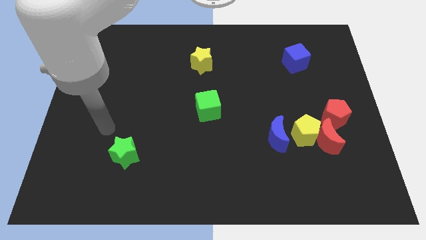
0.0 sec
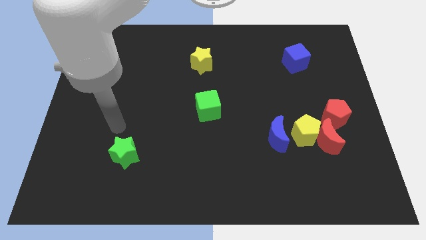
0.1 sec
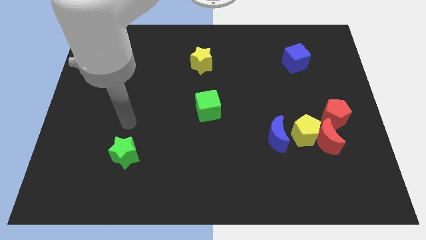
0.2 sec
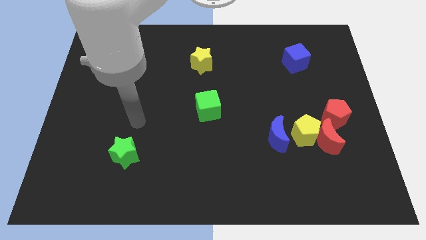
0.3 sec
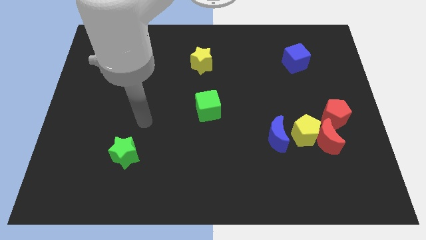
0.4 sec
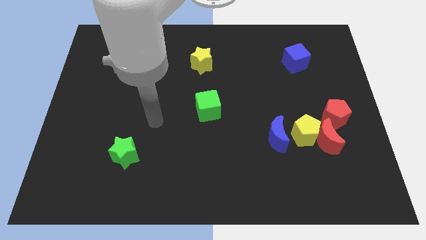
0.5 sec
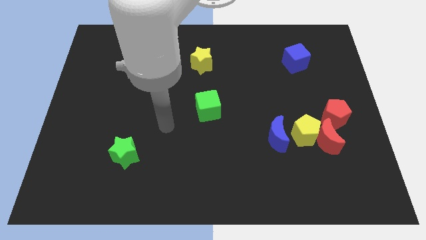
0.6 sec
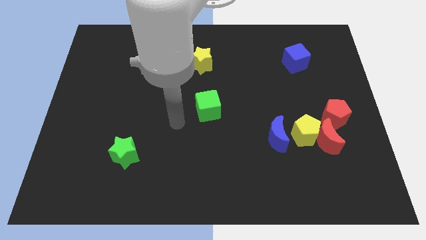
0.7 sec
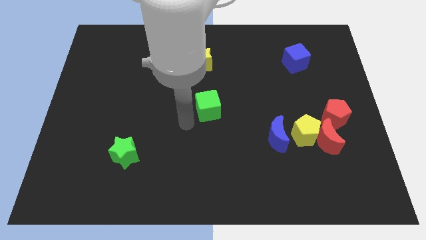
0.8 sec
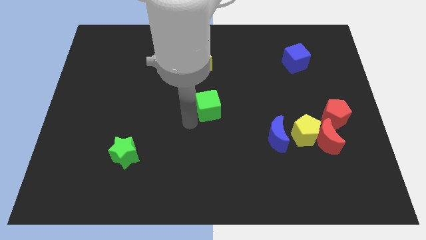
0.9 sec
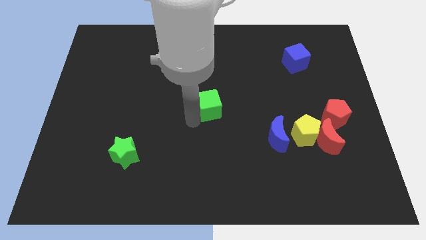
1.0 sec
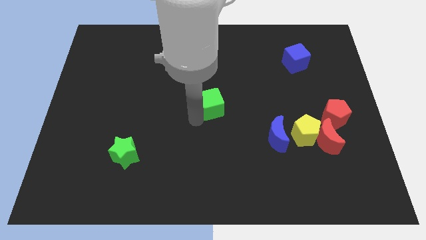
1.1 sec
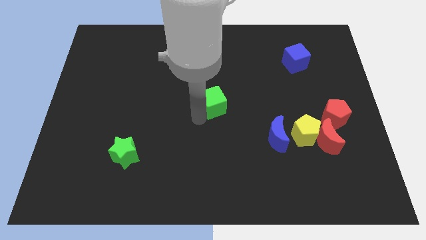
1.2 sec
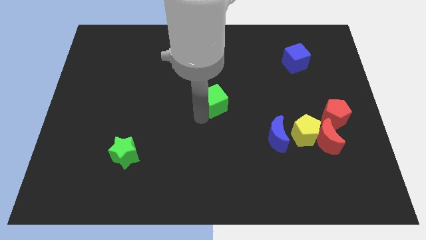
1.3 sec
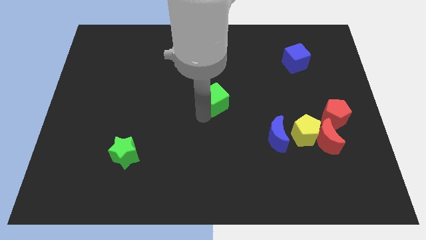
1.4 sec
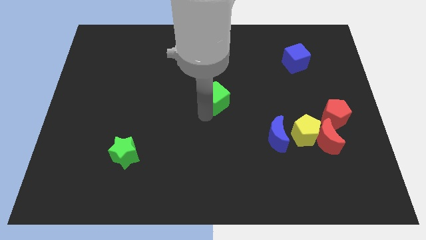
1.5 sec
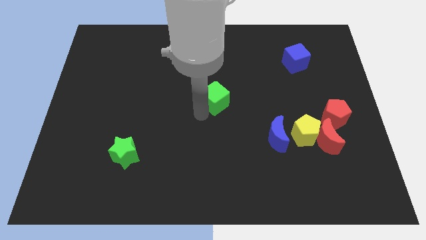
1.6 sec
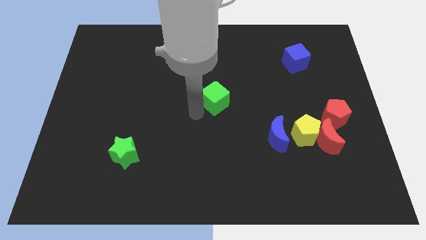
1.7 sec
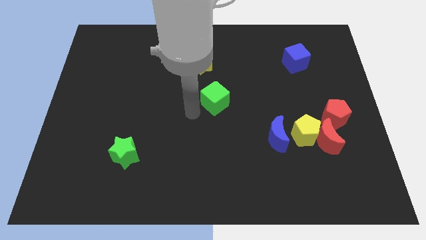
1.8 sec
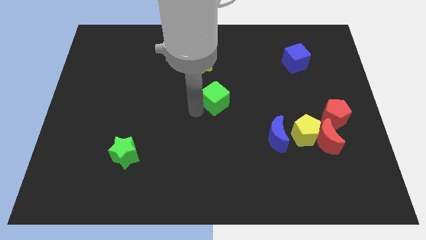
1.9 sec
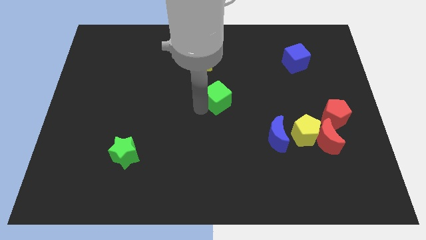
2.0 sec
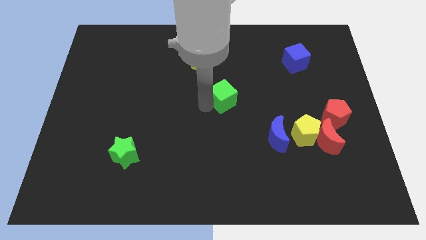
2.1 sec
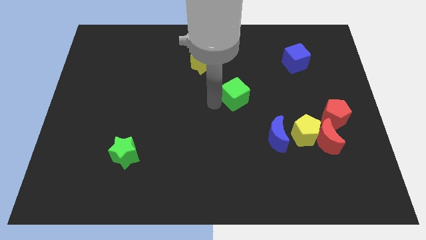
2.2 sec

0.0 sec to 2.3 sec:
push the green cube a little up and then right

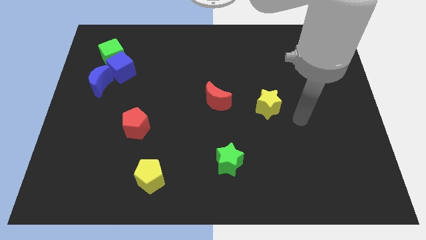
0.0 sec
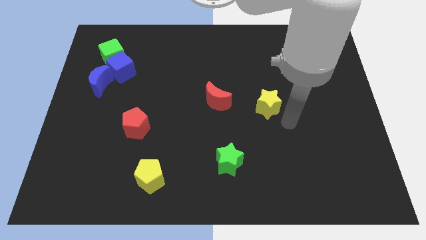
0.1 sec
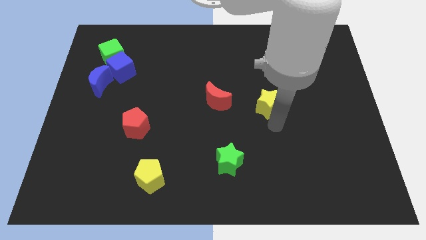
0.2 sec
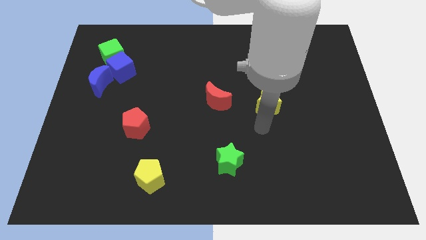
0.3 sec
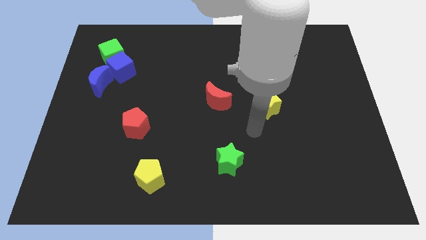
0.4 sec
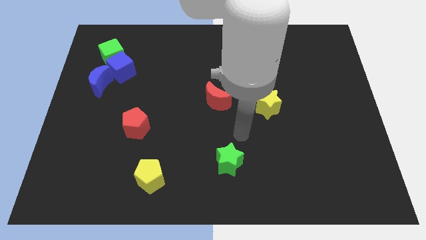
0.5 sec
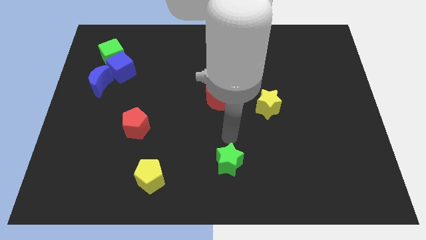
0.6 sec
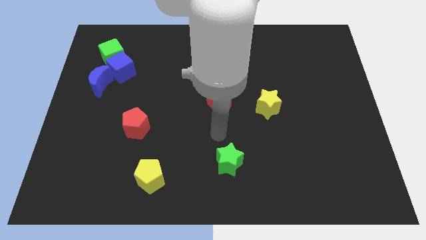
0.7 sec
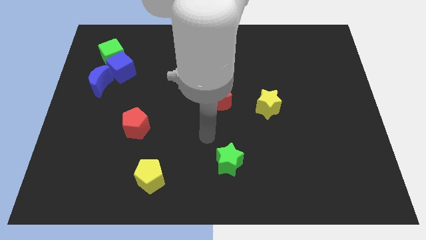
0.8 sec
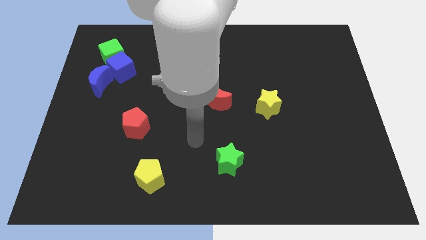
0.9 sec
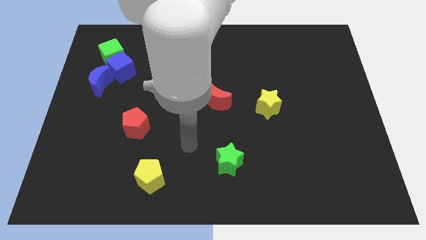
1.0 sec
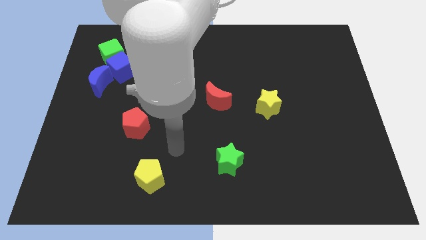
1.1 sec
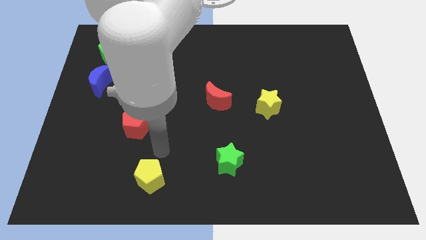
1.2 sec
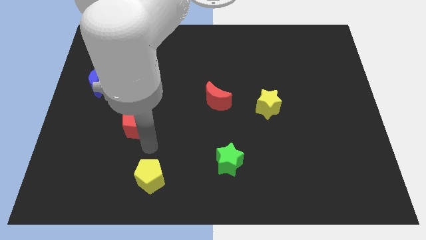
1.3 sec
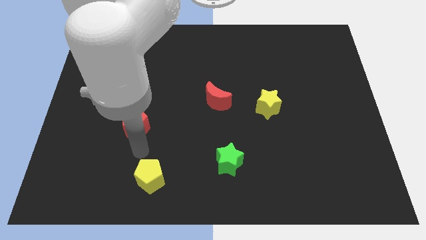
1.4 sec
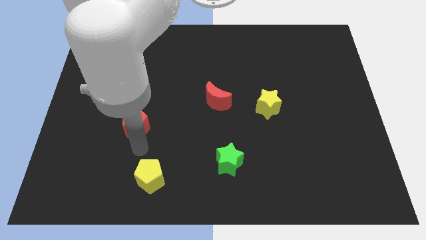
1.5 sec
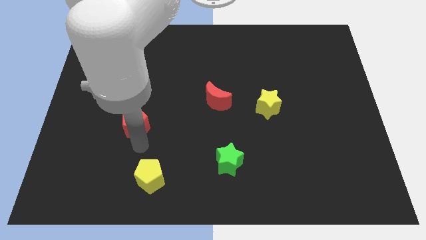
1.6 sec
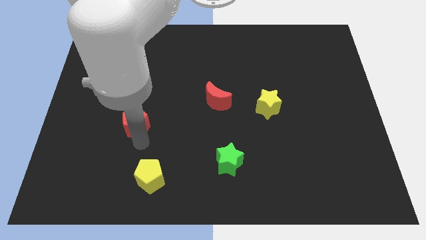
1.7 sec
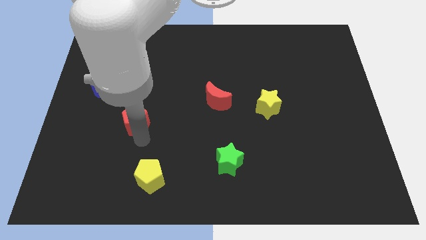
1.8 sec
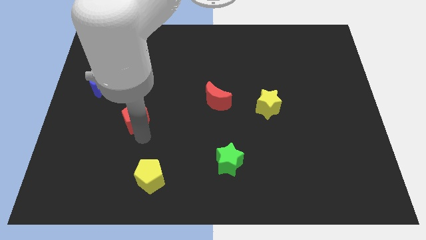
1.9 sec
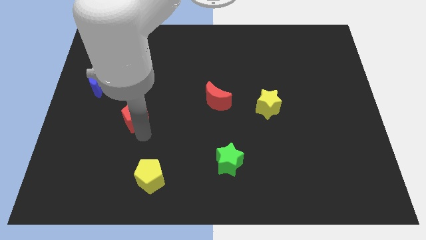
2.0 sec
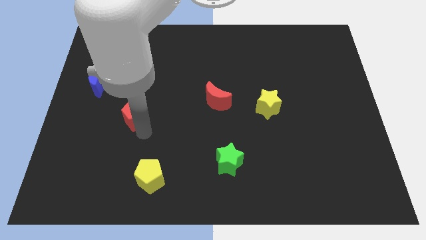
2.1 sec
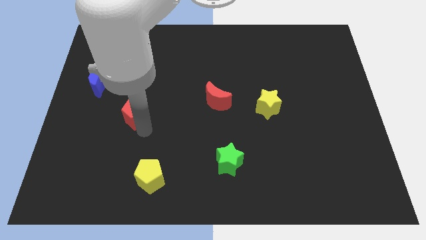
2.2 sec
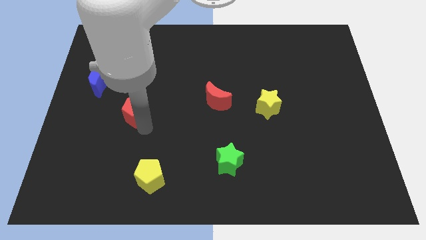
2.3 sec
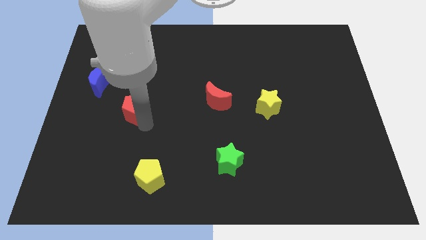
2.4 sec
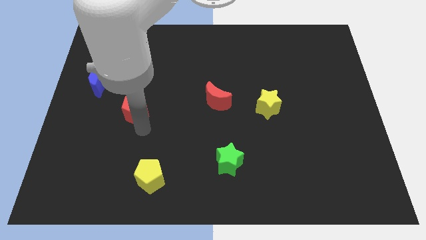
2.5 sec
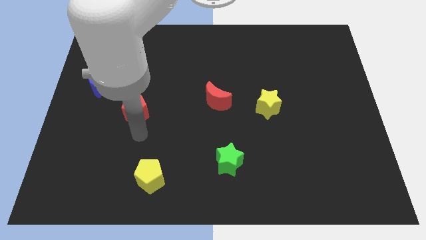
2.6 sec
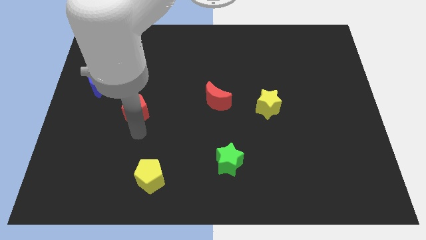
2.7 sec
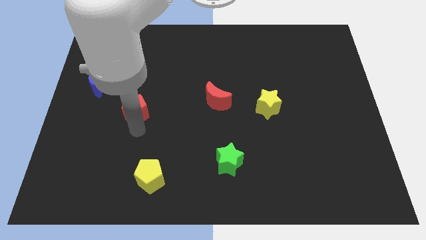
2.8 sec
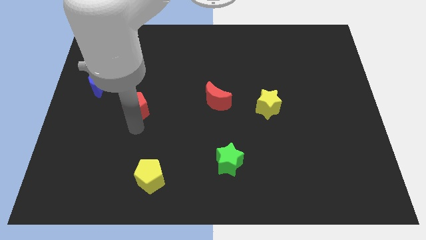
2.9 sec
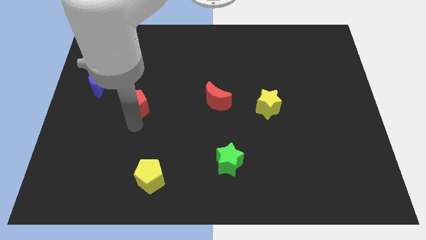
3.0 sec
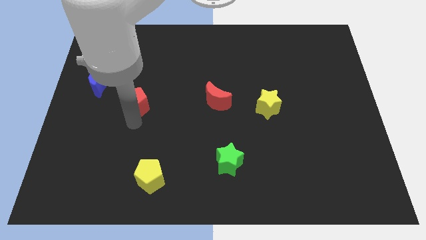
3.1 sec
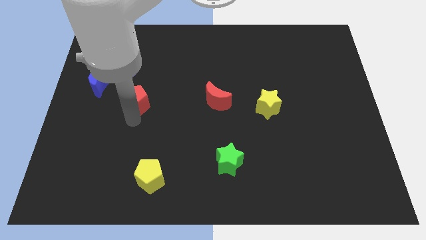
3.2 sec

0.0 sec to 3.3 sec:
move the red pentagon somewhat upwards

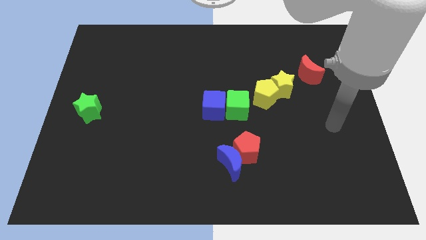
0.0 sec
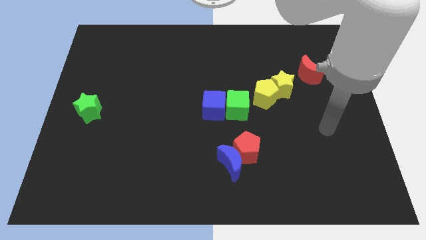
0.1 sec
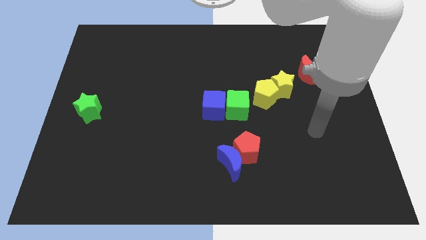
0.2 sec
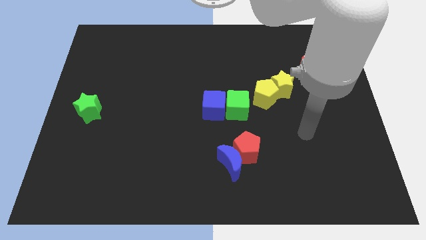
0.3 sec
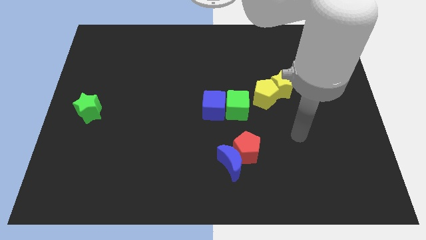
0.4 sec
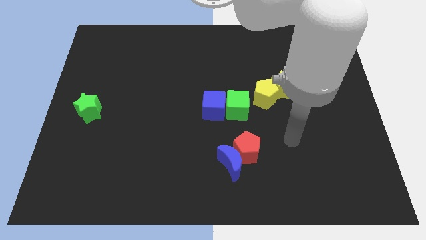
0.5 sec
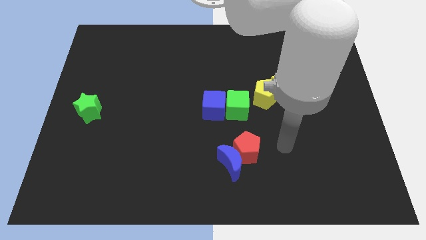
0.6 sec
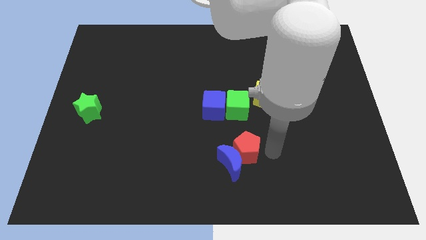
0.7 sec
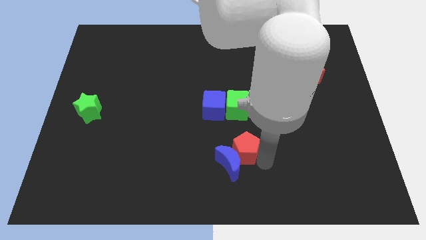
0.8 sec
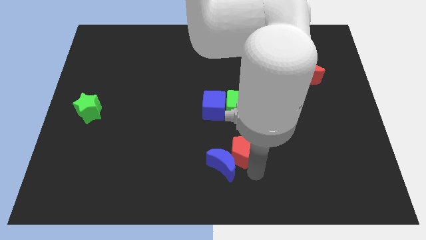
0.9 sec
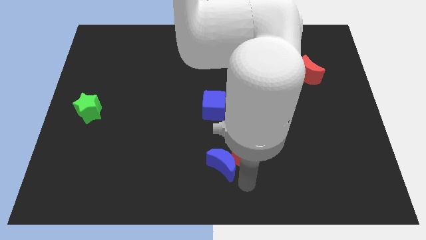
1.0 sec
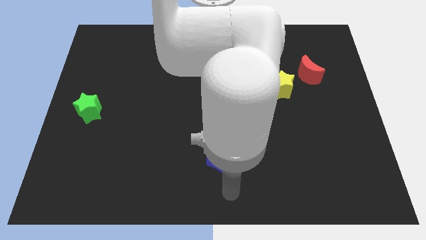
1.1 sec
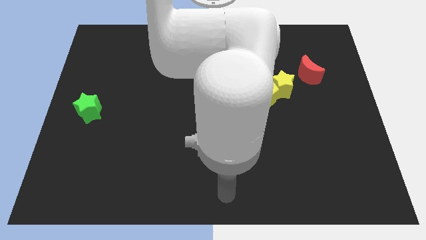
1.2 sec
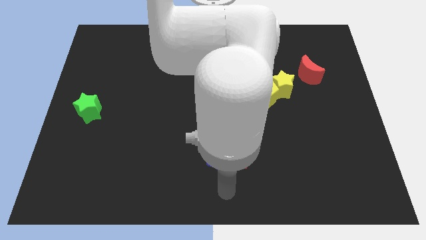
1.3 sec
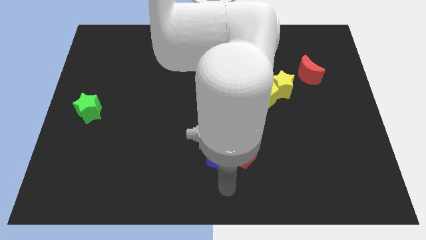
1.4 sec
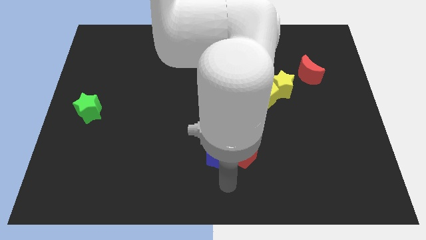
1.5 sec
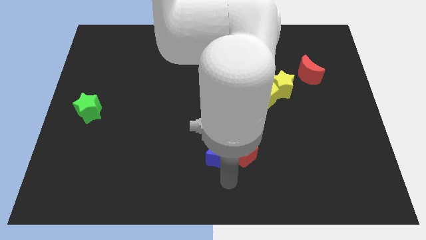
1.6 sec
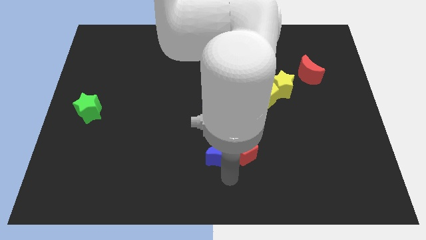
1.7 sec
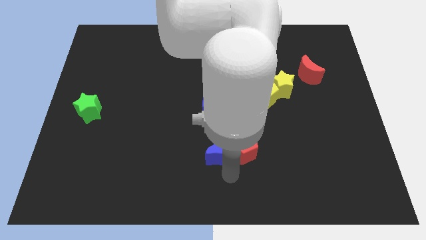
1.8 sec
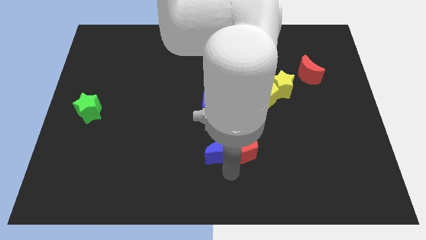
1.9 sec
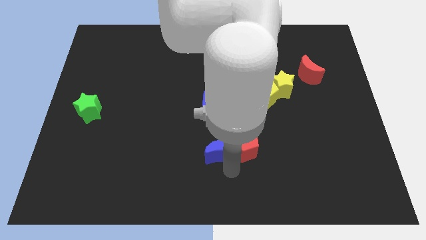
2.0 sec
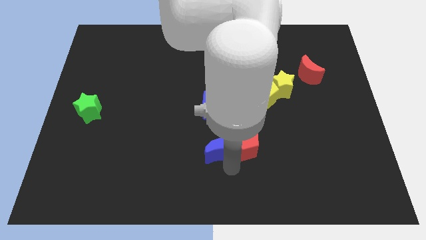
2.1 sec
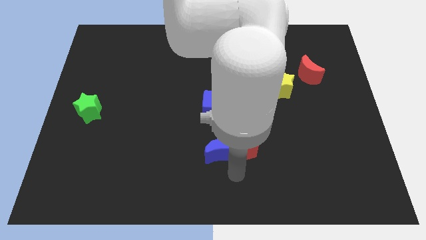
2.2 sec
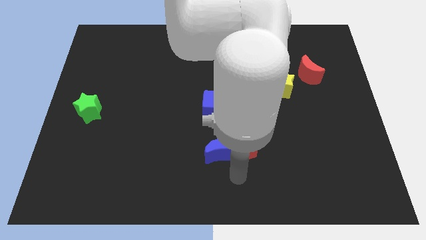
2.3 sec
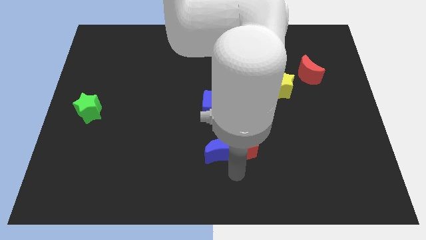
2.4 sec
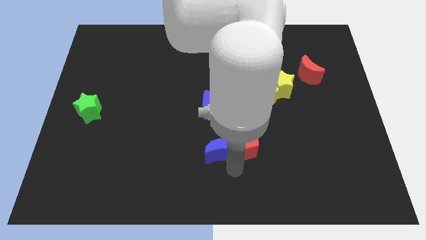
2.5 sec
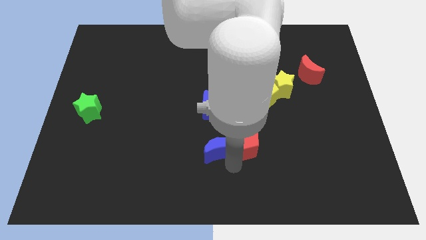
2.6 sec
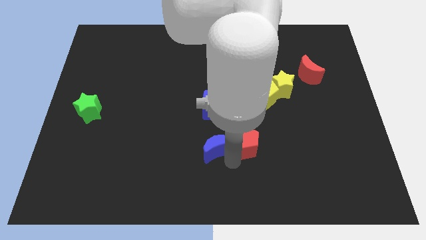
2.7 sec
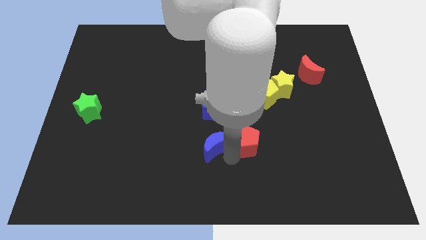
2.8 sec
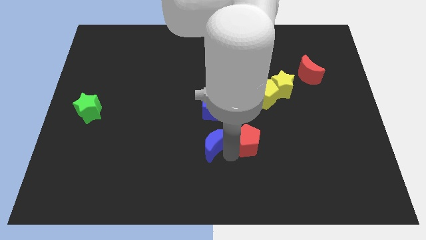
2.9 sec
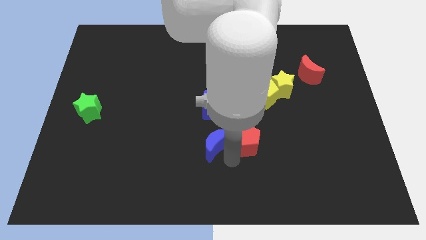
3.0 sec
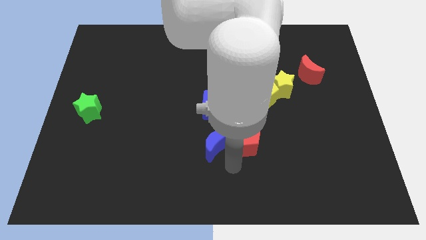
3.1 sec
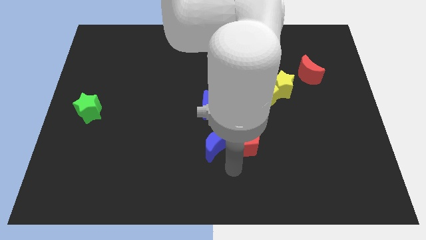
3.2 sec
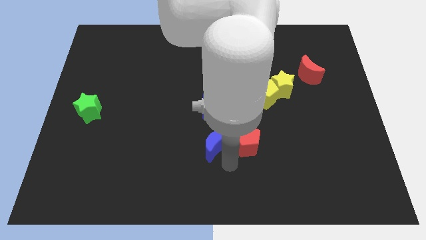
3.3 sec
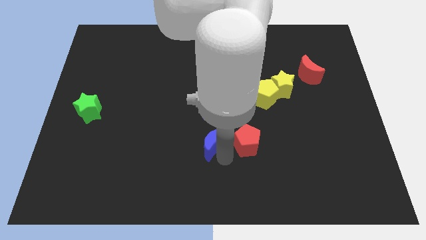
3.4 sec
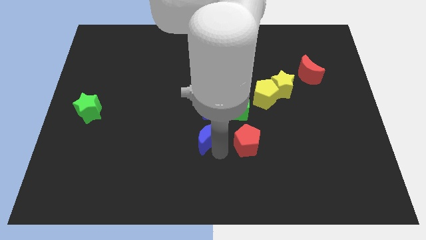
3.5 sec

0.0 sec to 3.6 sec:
slide the blue moon up and then left a bit
